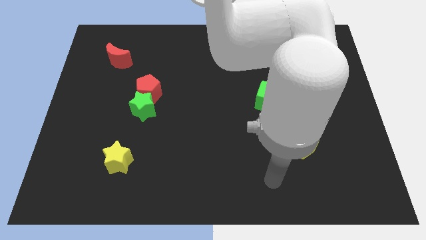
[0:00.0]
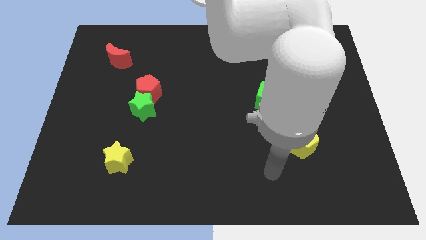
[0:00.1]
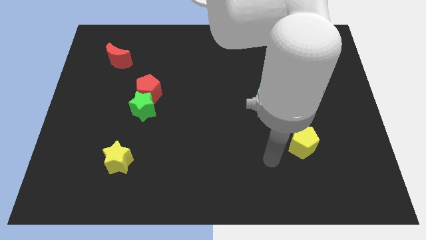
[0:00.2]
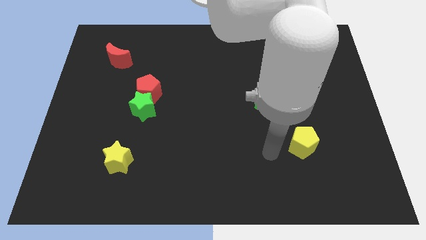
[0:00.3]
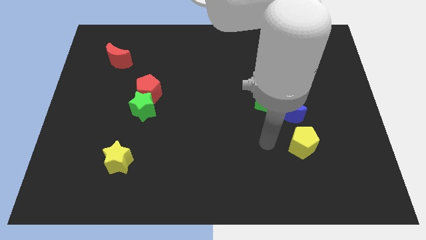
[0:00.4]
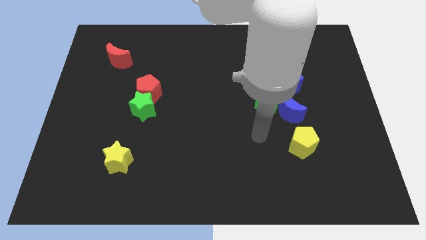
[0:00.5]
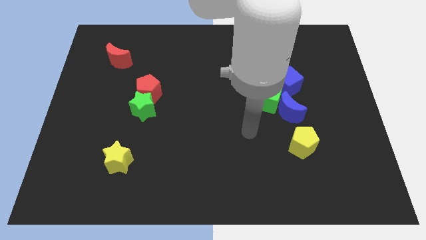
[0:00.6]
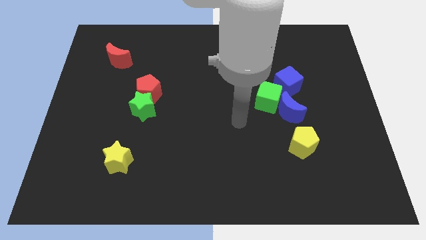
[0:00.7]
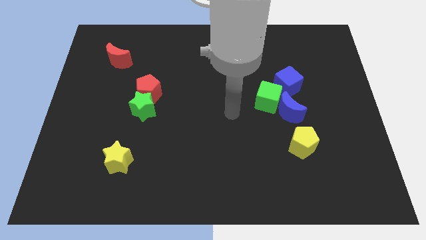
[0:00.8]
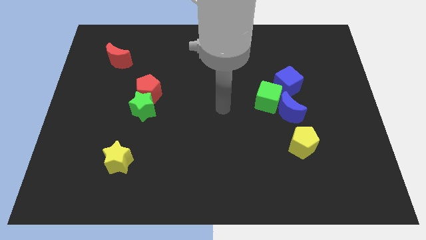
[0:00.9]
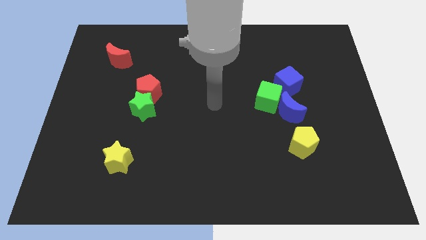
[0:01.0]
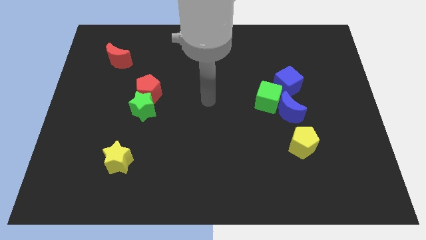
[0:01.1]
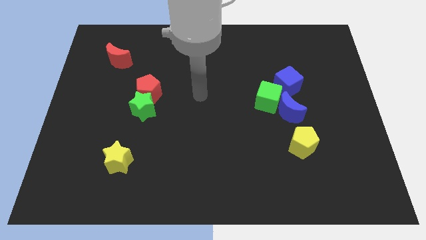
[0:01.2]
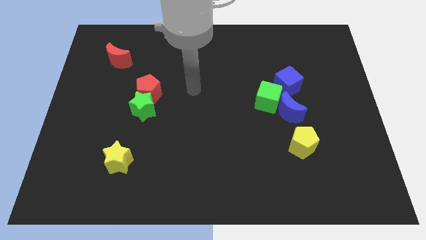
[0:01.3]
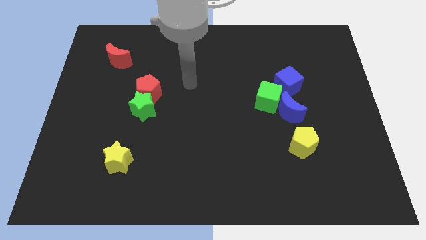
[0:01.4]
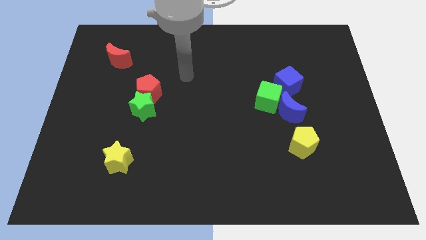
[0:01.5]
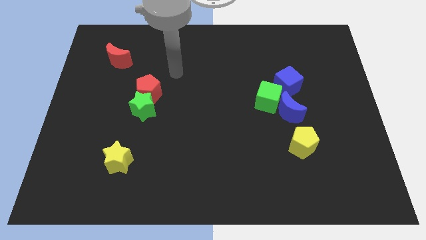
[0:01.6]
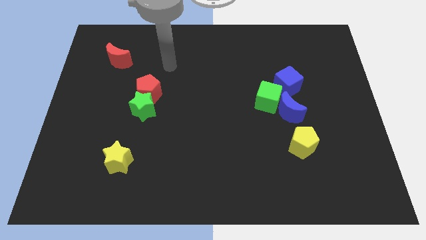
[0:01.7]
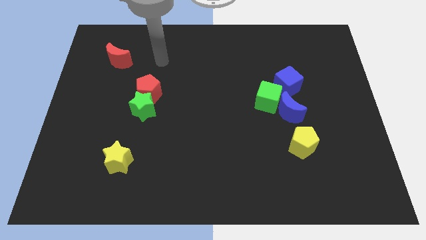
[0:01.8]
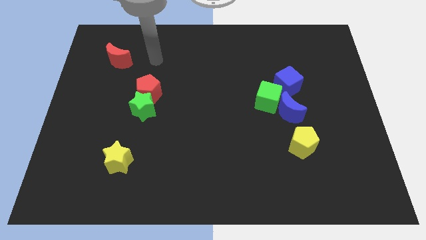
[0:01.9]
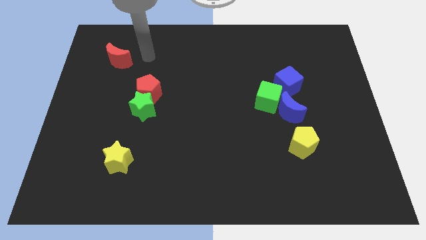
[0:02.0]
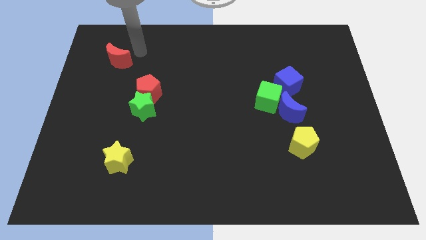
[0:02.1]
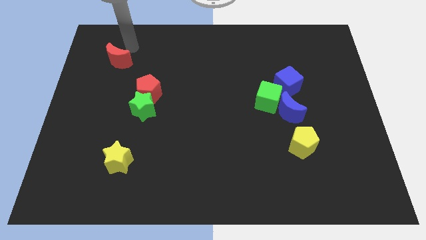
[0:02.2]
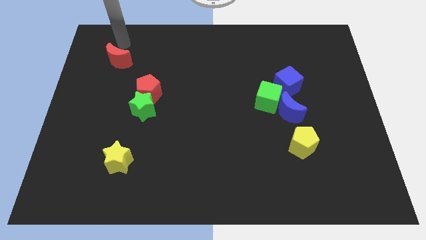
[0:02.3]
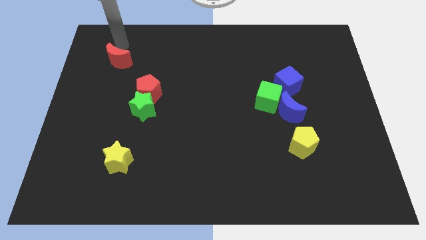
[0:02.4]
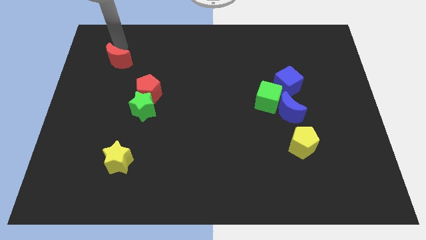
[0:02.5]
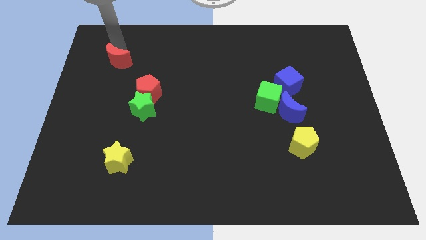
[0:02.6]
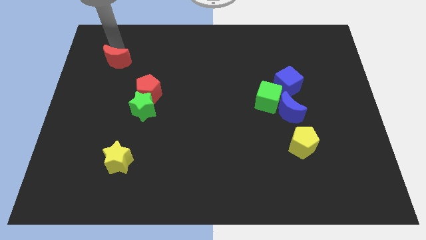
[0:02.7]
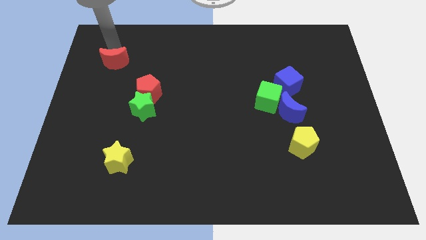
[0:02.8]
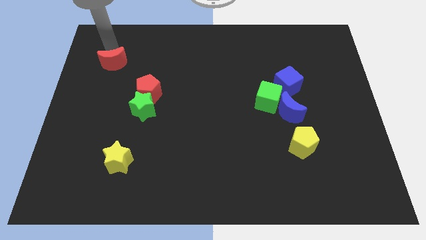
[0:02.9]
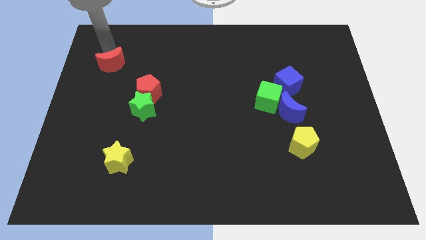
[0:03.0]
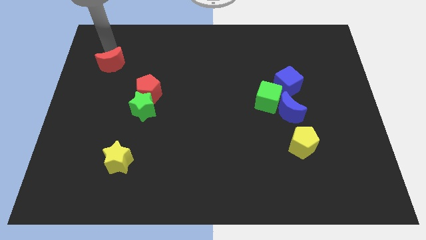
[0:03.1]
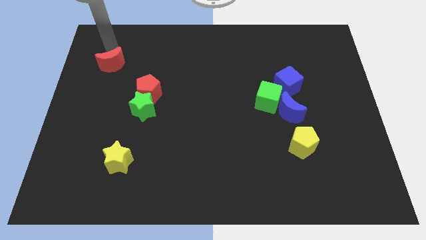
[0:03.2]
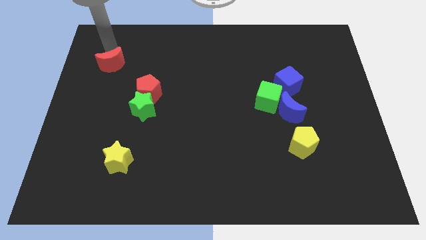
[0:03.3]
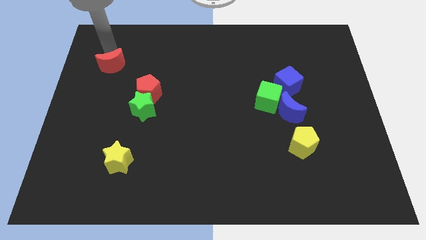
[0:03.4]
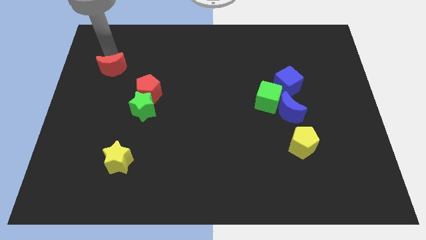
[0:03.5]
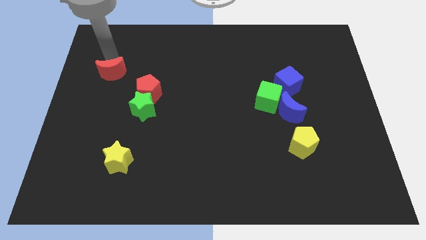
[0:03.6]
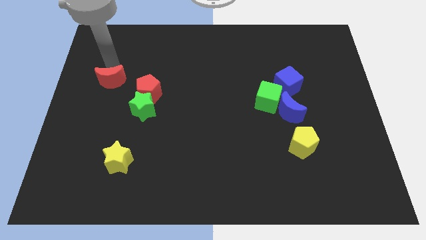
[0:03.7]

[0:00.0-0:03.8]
slide the red moon down a bit

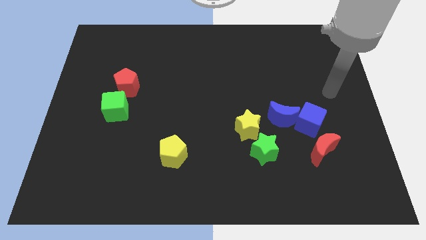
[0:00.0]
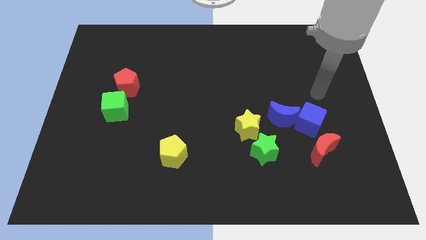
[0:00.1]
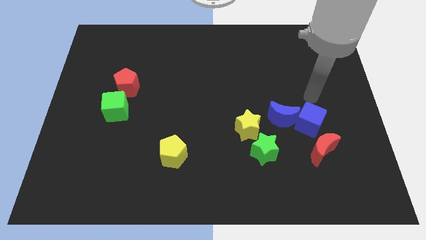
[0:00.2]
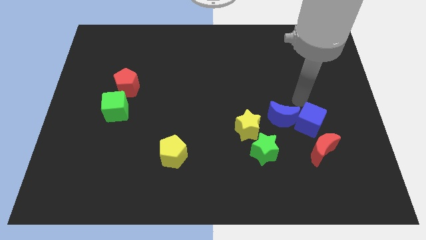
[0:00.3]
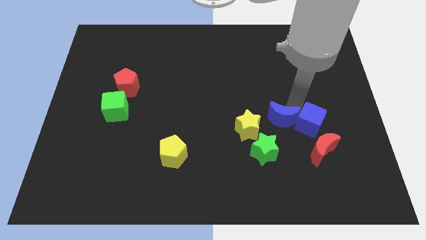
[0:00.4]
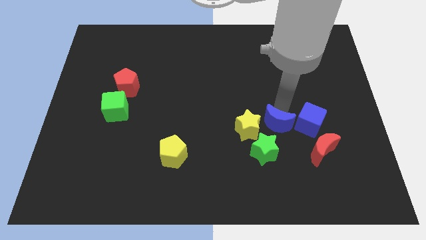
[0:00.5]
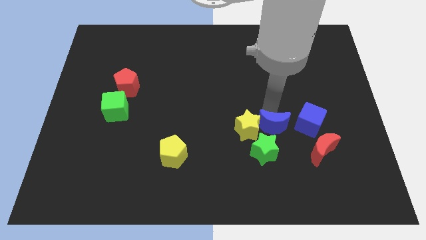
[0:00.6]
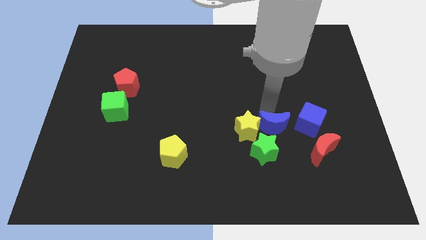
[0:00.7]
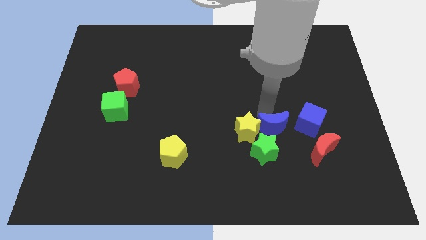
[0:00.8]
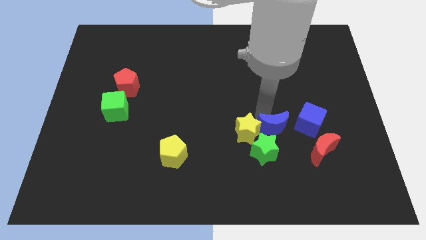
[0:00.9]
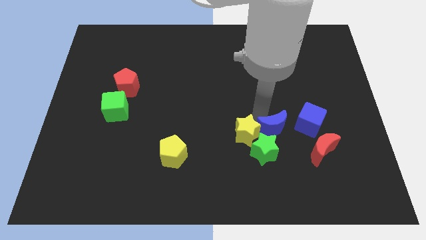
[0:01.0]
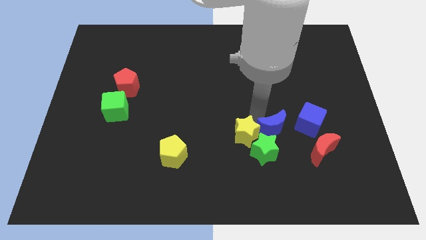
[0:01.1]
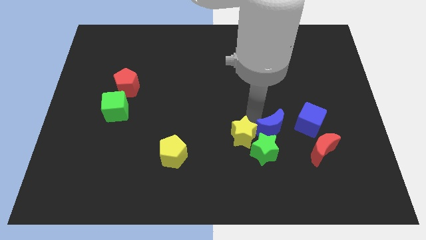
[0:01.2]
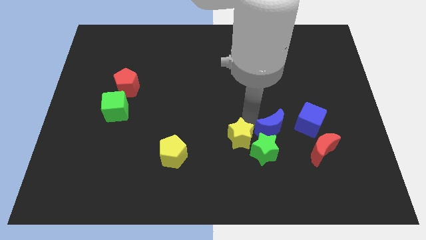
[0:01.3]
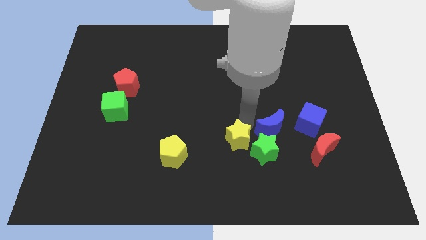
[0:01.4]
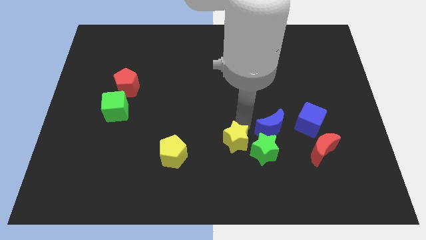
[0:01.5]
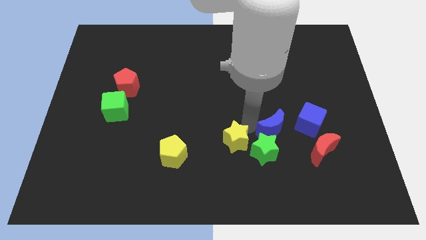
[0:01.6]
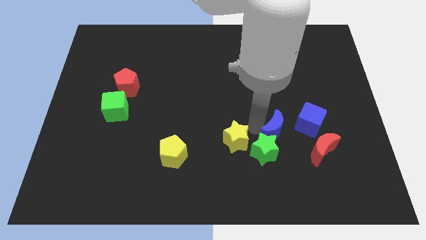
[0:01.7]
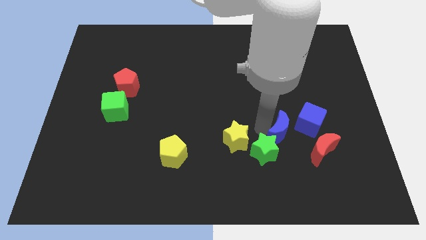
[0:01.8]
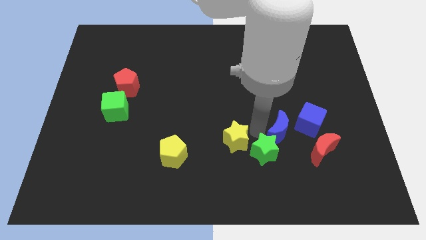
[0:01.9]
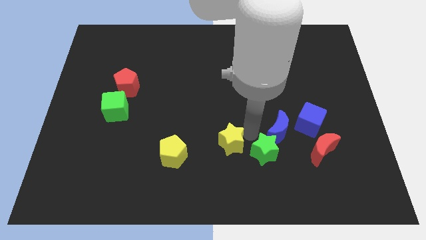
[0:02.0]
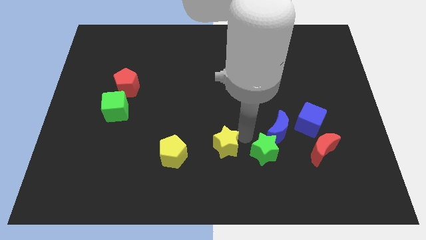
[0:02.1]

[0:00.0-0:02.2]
slightly move the yellow star down and then to the left

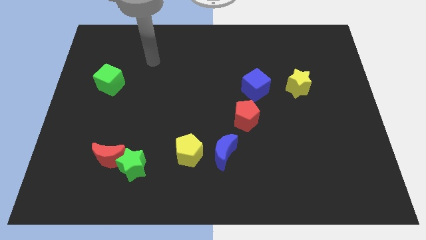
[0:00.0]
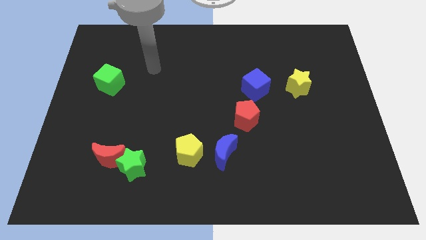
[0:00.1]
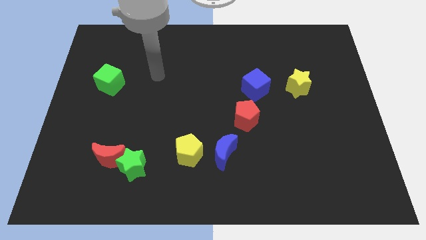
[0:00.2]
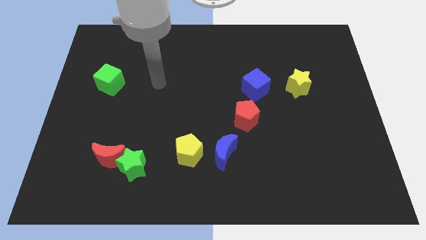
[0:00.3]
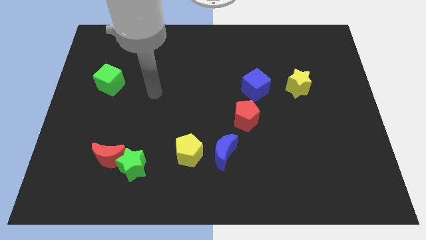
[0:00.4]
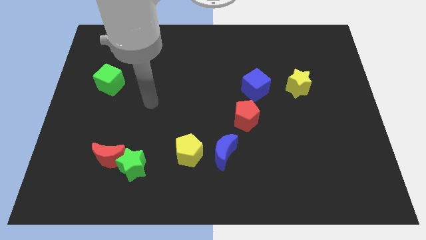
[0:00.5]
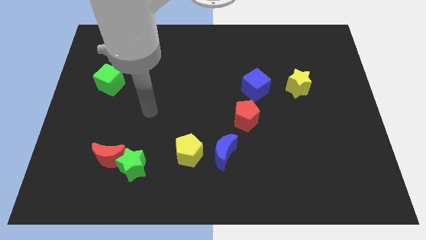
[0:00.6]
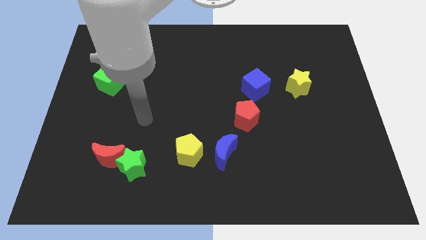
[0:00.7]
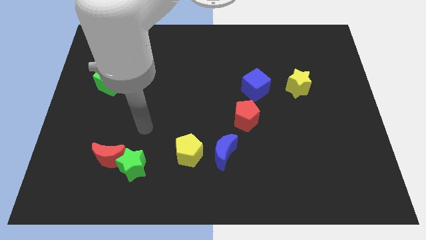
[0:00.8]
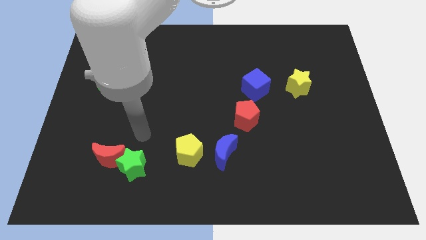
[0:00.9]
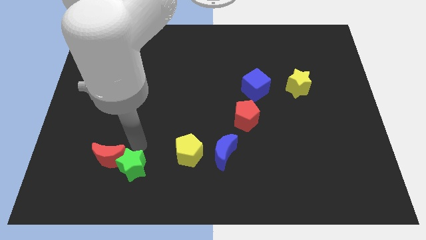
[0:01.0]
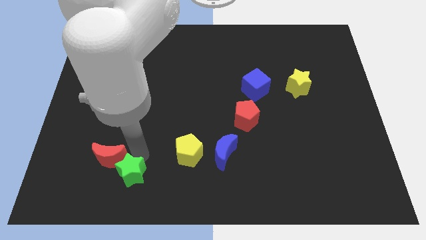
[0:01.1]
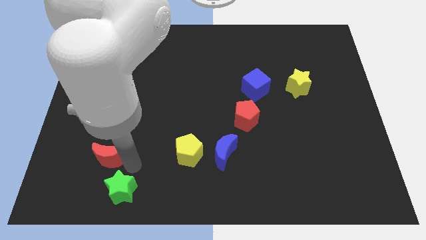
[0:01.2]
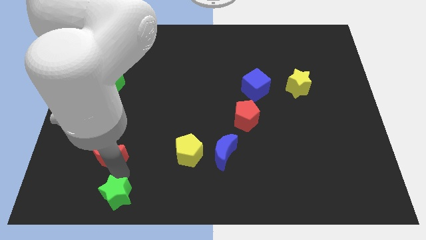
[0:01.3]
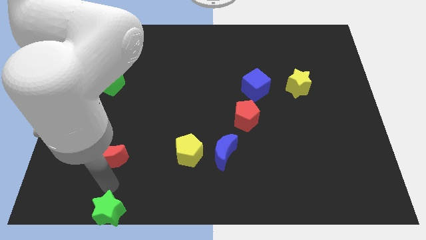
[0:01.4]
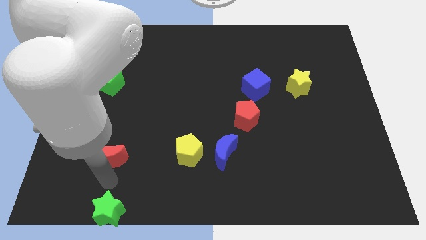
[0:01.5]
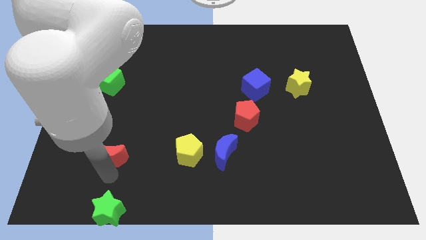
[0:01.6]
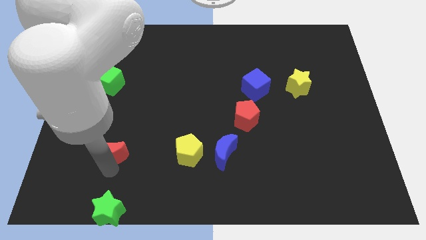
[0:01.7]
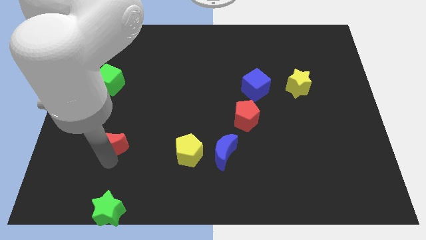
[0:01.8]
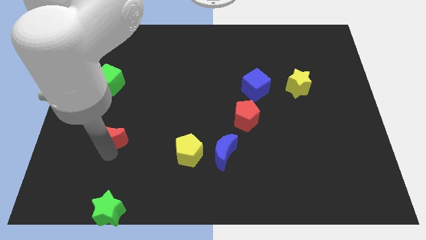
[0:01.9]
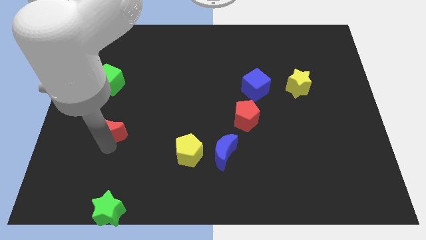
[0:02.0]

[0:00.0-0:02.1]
slightly push the red moon upwards
